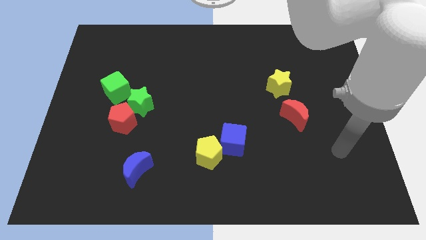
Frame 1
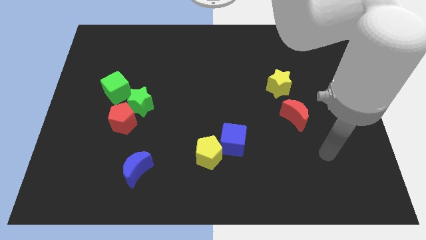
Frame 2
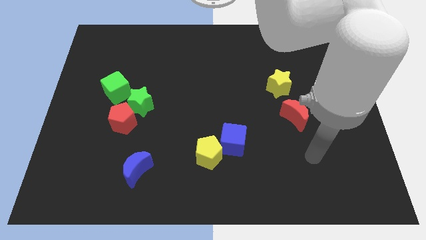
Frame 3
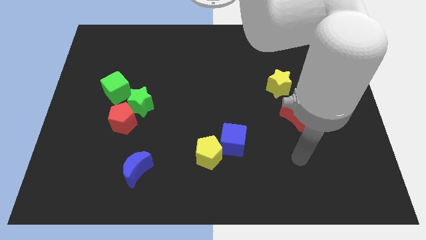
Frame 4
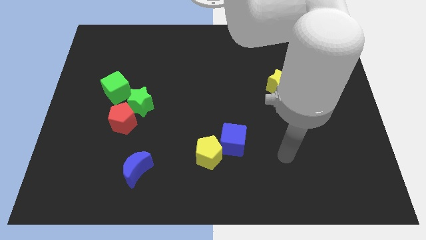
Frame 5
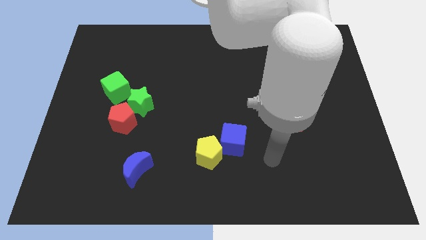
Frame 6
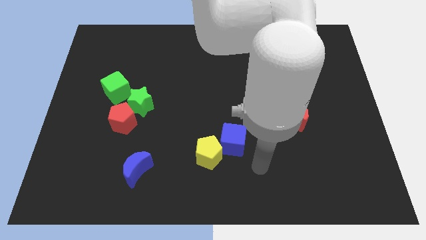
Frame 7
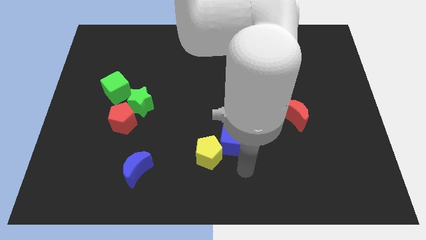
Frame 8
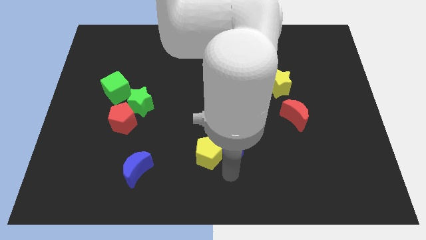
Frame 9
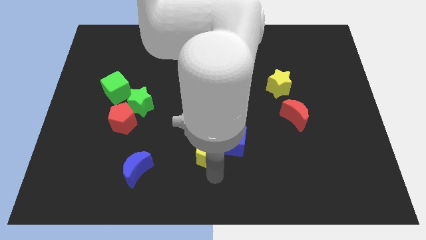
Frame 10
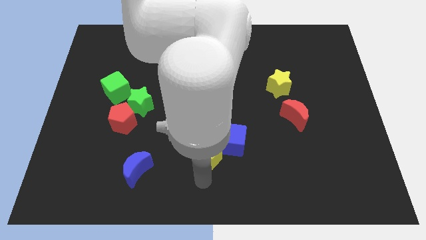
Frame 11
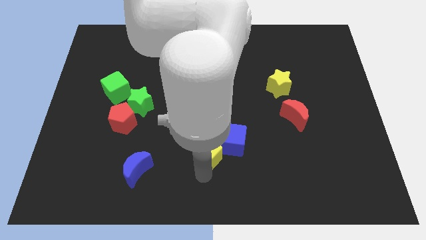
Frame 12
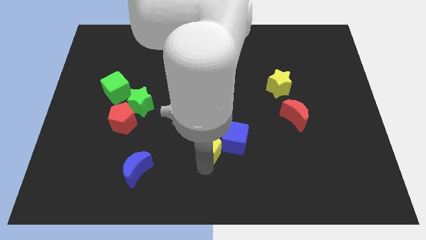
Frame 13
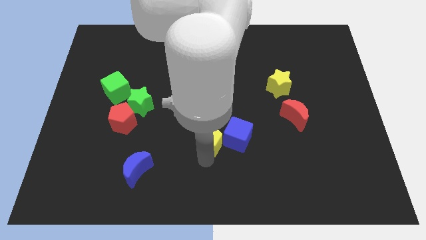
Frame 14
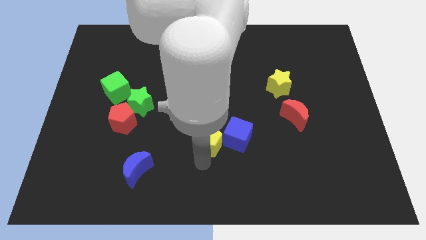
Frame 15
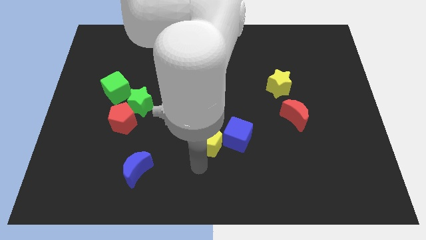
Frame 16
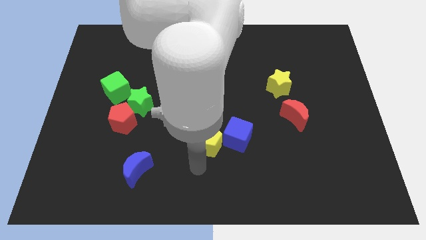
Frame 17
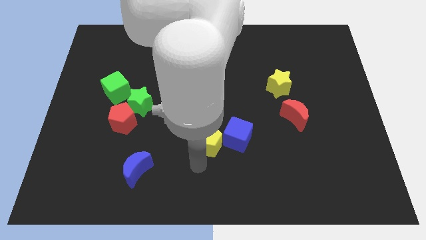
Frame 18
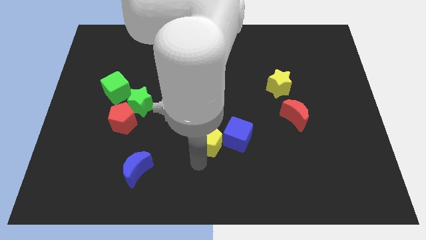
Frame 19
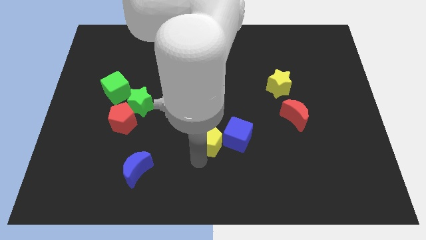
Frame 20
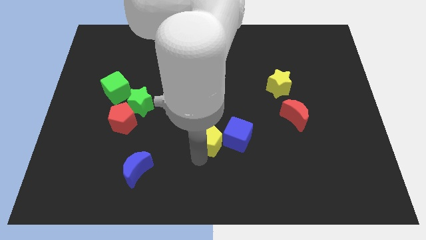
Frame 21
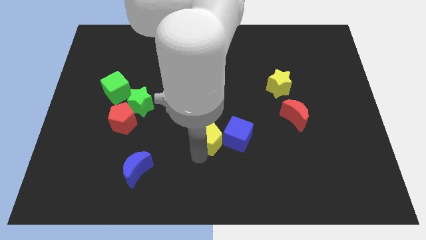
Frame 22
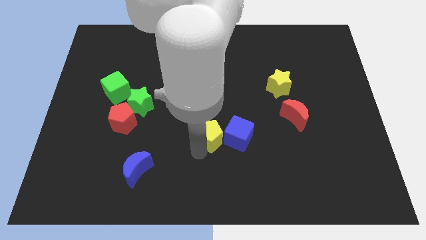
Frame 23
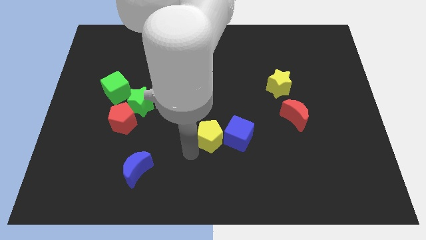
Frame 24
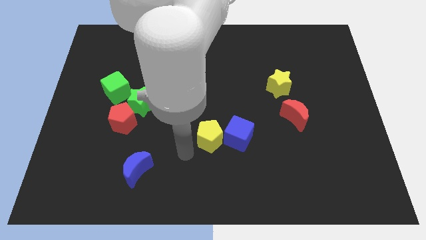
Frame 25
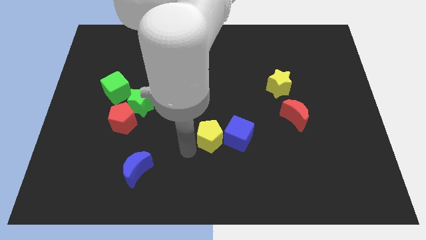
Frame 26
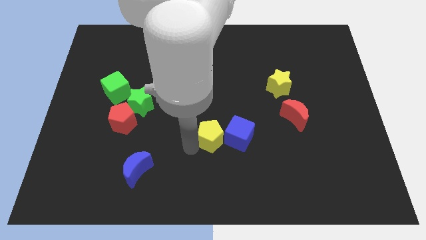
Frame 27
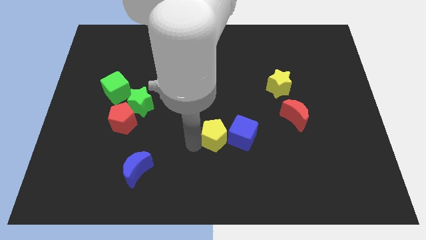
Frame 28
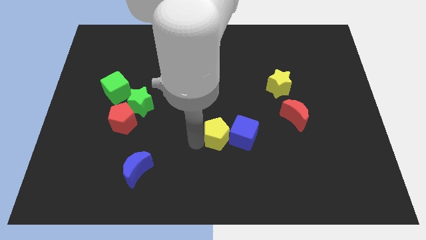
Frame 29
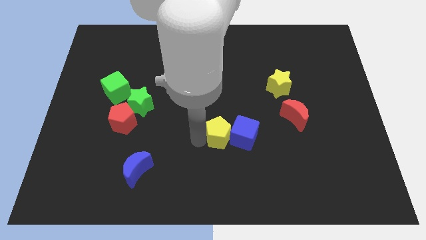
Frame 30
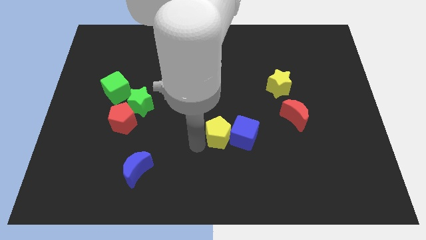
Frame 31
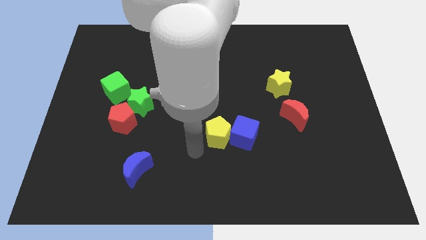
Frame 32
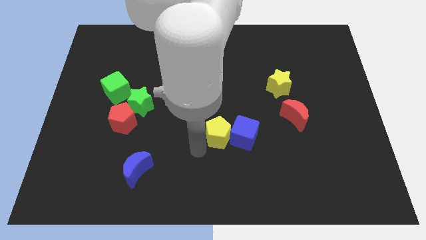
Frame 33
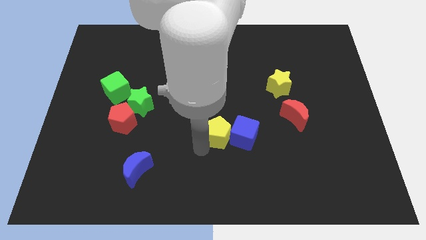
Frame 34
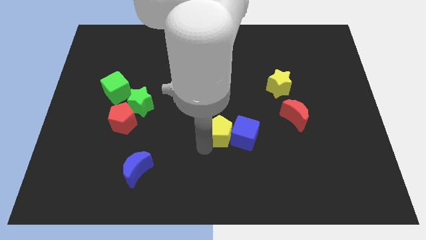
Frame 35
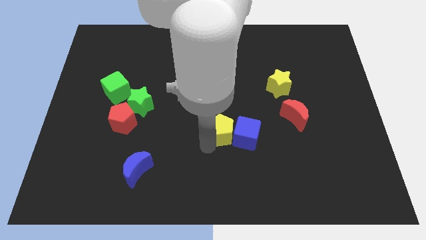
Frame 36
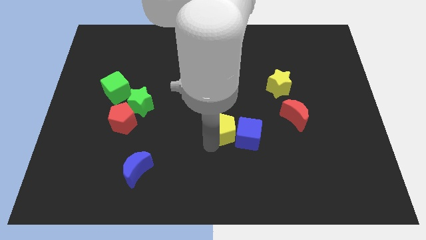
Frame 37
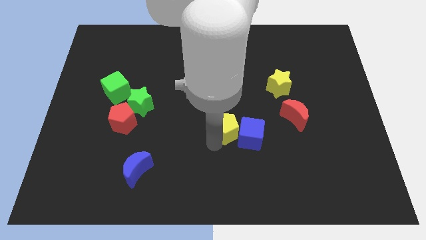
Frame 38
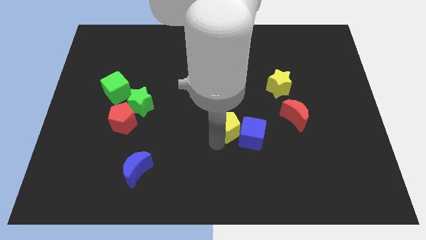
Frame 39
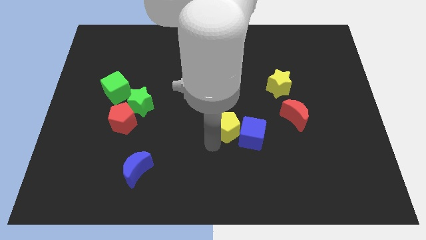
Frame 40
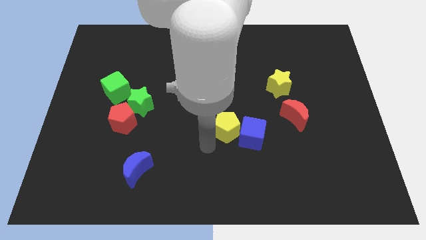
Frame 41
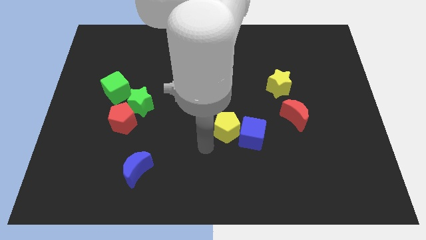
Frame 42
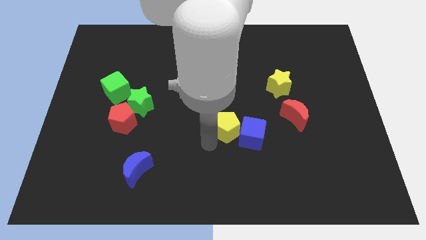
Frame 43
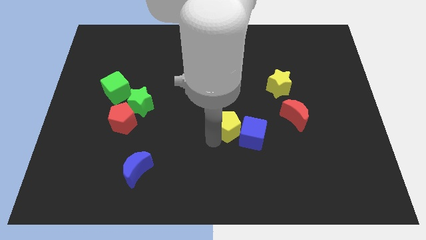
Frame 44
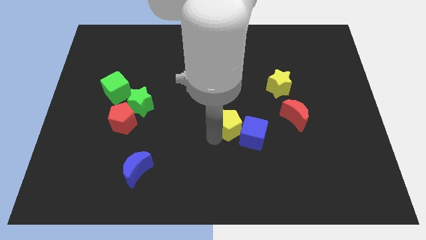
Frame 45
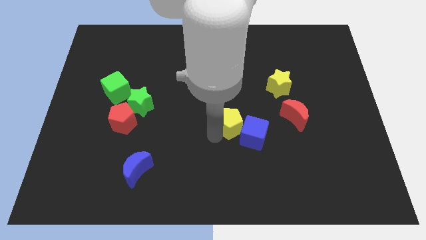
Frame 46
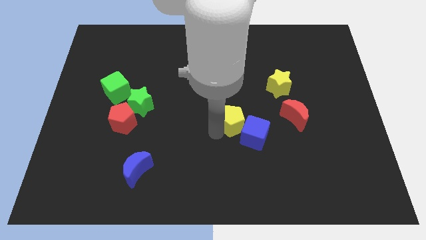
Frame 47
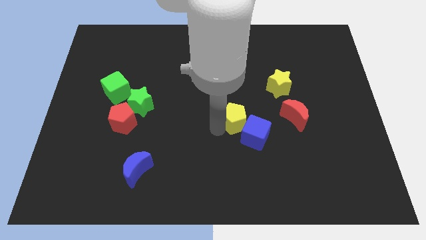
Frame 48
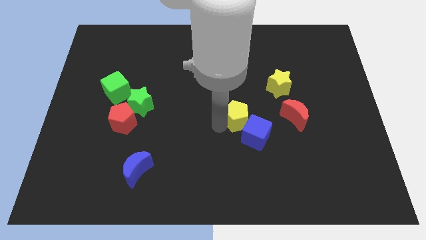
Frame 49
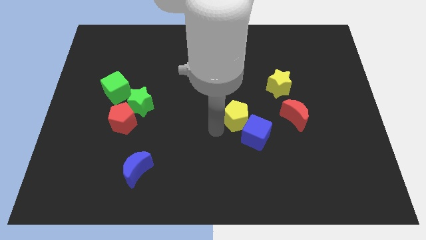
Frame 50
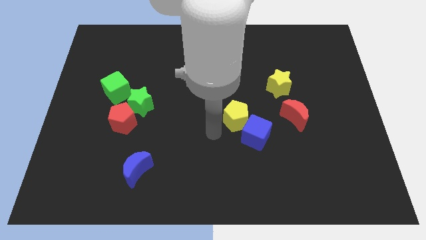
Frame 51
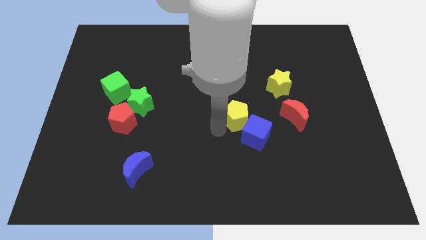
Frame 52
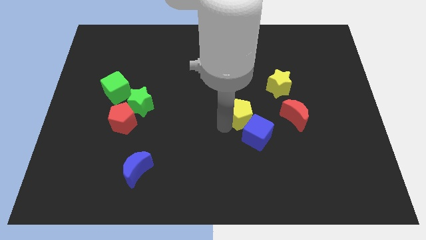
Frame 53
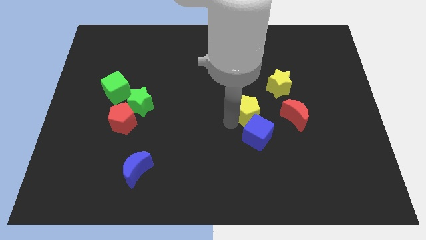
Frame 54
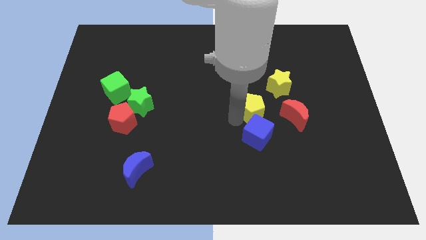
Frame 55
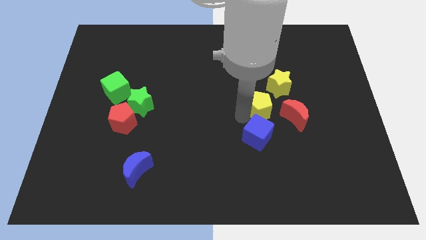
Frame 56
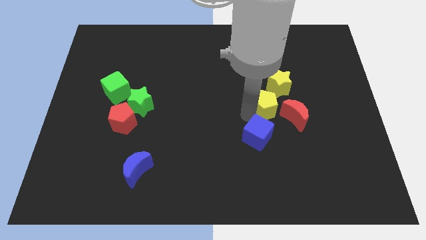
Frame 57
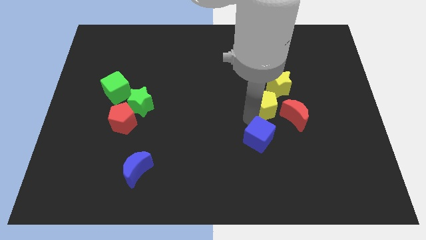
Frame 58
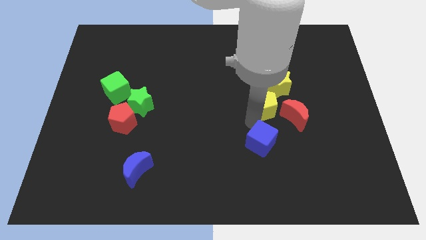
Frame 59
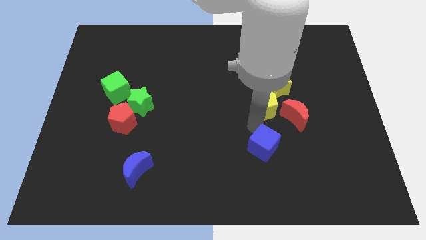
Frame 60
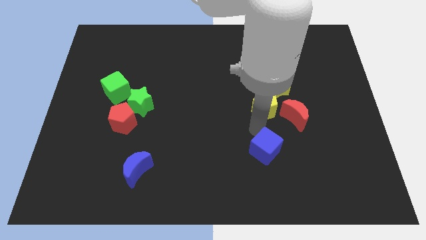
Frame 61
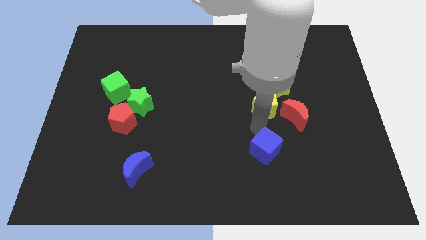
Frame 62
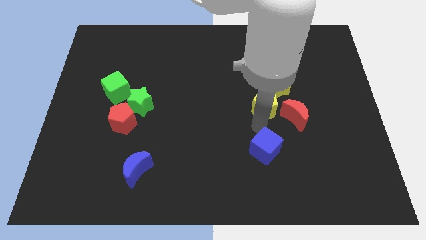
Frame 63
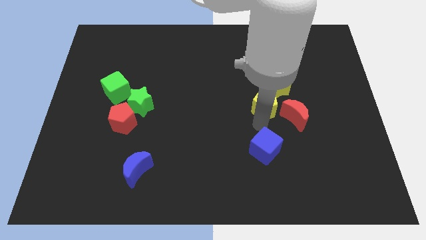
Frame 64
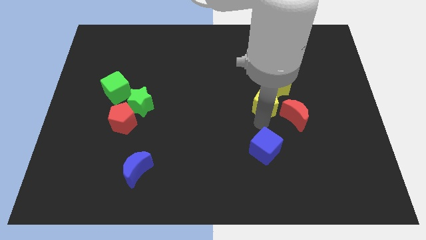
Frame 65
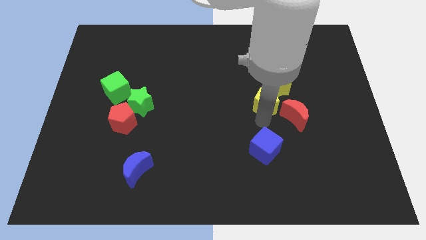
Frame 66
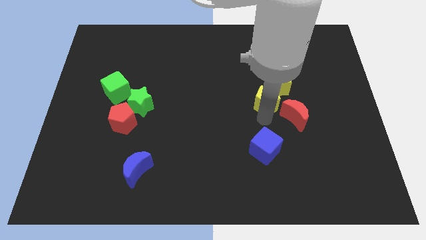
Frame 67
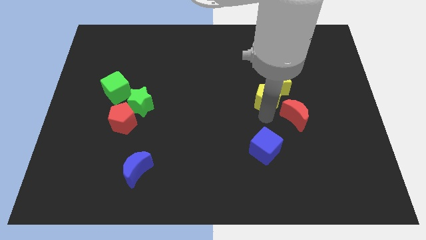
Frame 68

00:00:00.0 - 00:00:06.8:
slide the yellow pentagon next to the yellow star
